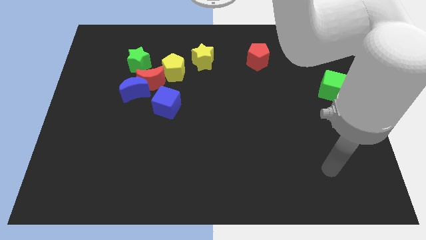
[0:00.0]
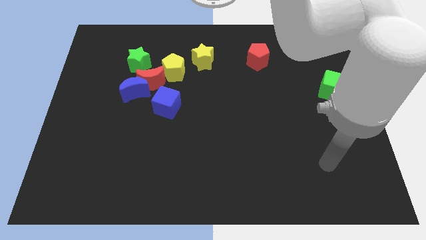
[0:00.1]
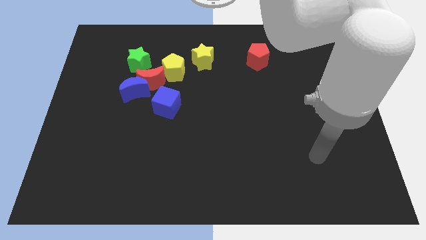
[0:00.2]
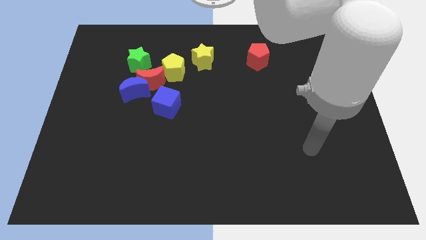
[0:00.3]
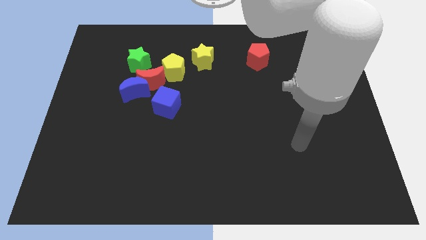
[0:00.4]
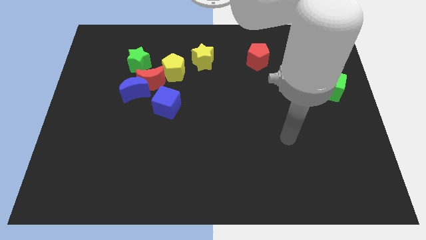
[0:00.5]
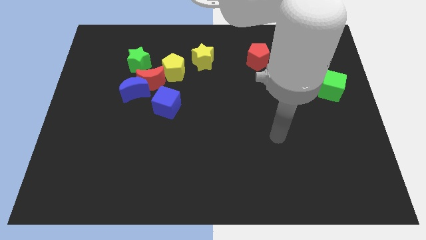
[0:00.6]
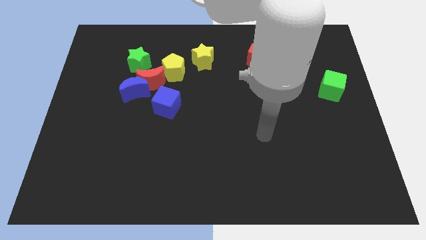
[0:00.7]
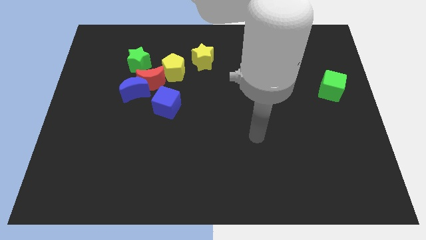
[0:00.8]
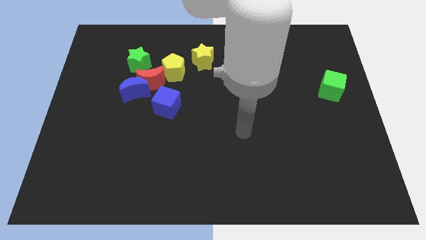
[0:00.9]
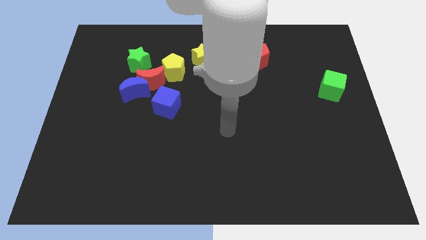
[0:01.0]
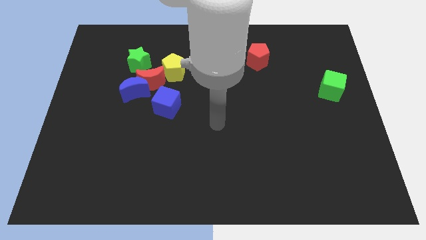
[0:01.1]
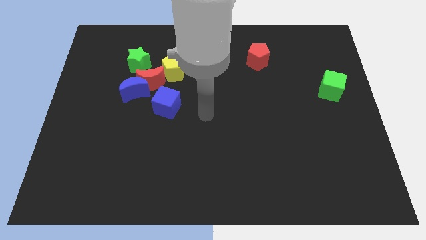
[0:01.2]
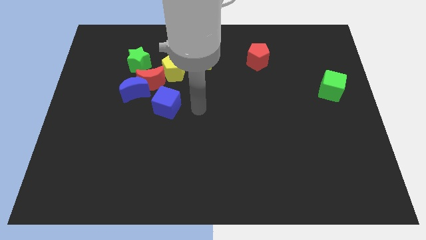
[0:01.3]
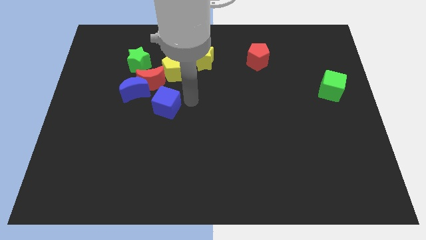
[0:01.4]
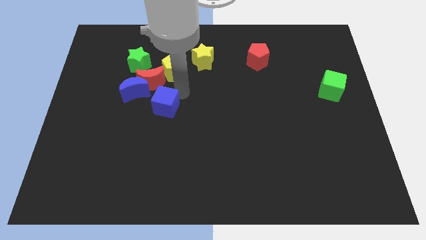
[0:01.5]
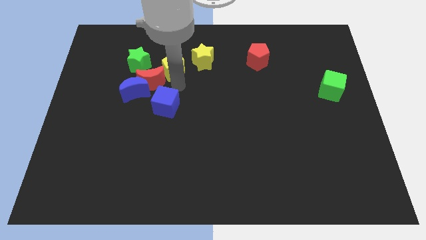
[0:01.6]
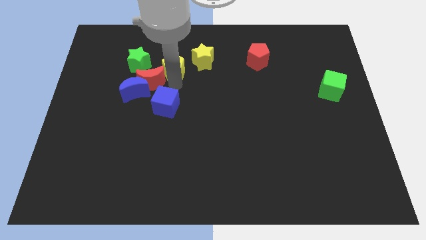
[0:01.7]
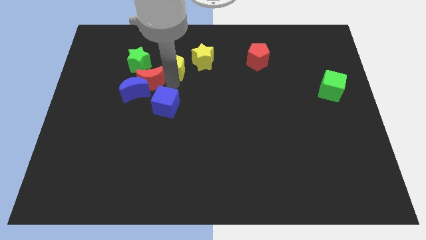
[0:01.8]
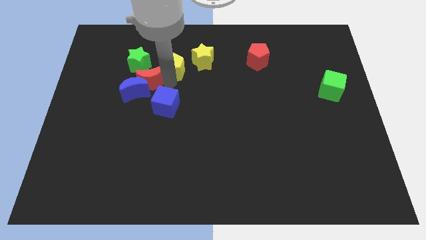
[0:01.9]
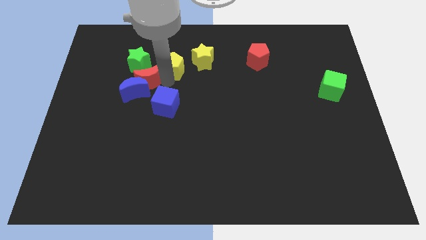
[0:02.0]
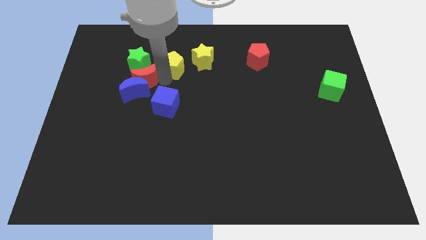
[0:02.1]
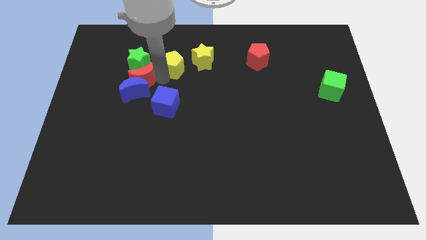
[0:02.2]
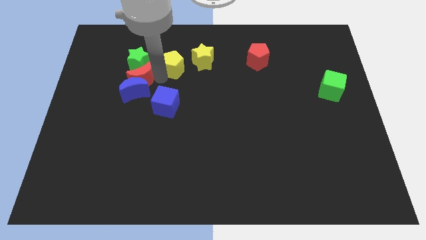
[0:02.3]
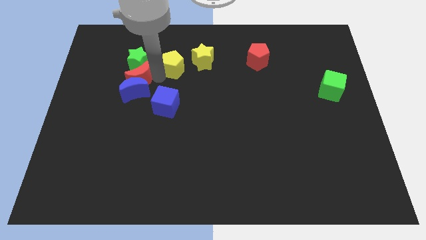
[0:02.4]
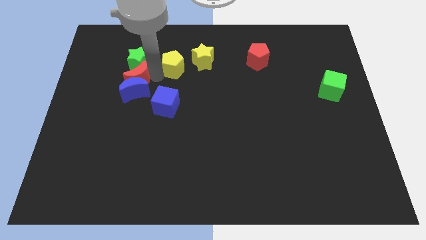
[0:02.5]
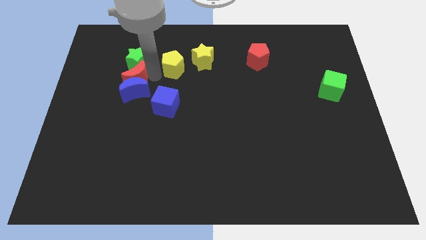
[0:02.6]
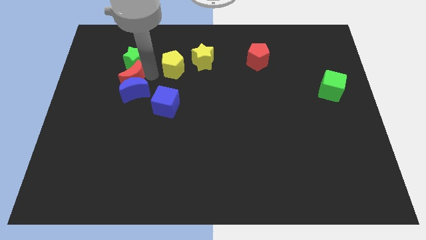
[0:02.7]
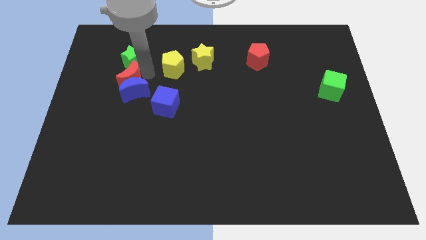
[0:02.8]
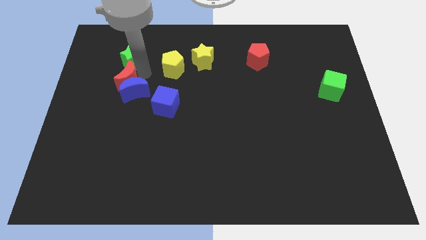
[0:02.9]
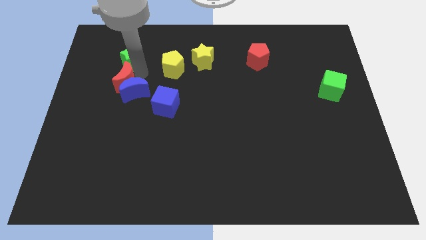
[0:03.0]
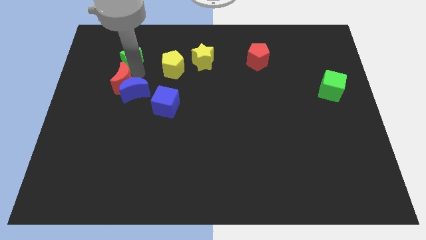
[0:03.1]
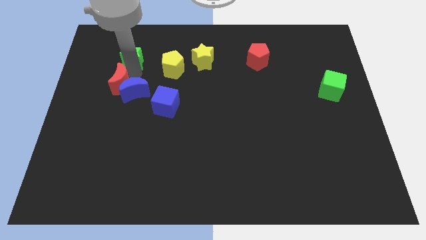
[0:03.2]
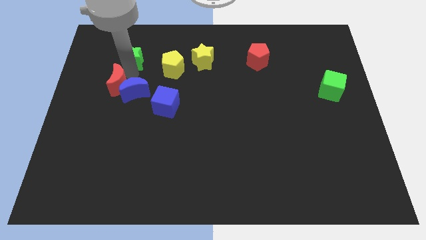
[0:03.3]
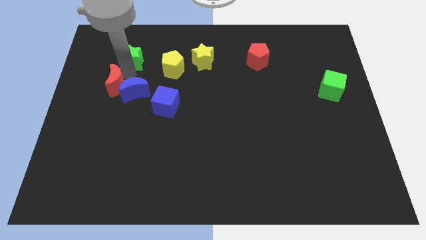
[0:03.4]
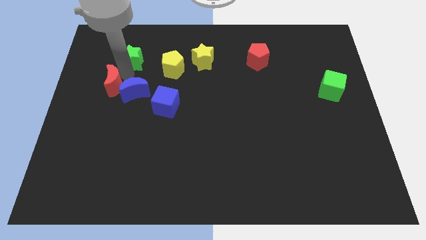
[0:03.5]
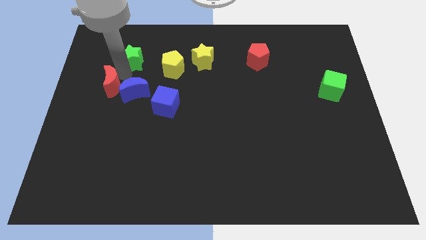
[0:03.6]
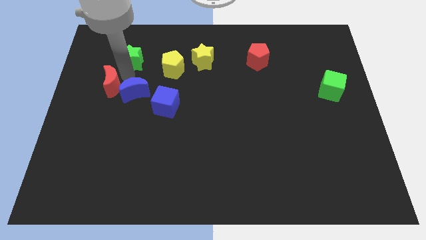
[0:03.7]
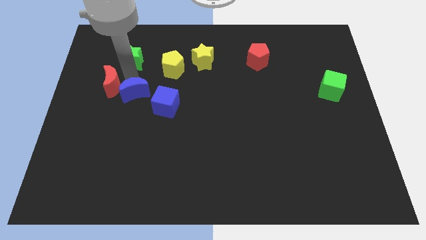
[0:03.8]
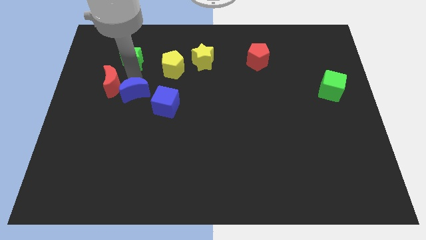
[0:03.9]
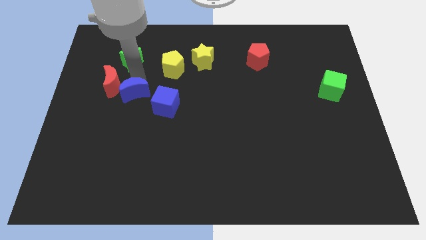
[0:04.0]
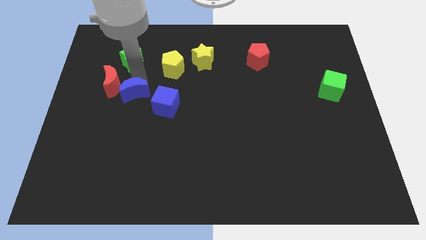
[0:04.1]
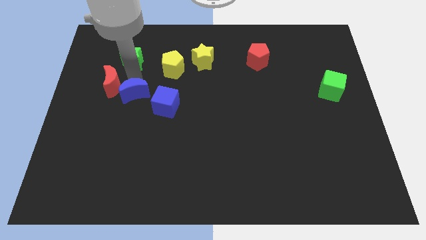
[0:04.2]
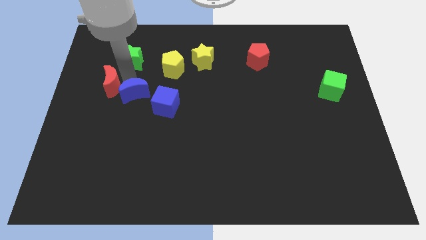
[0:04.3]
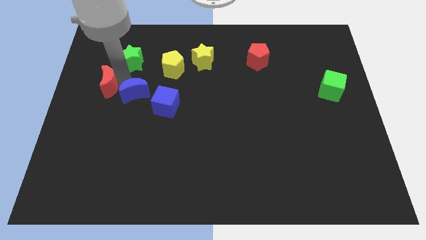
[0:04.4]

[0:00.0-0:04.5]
move the red moon away from the group

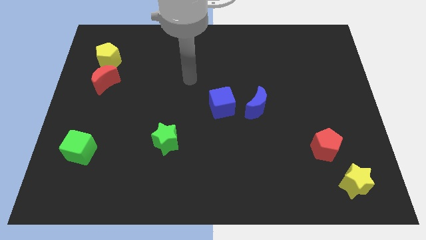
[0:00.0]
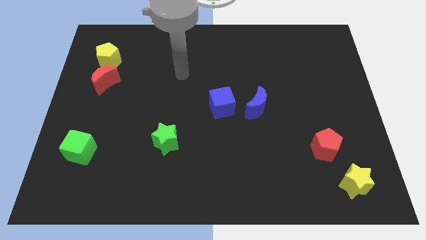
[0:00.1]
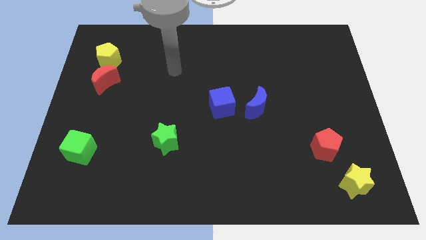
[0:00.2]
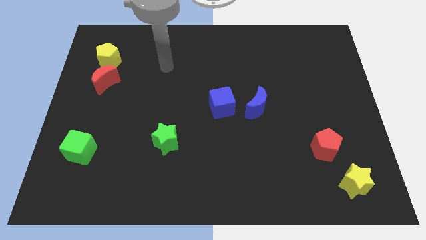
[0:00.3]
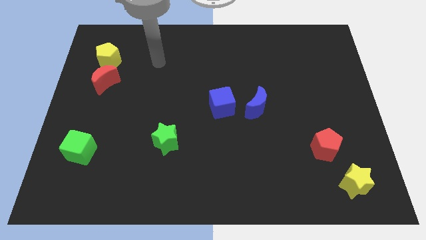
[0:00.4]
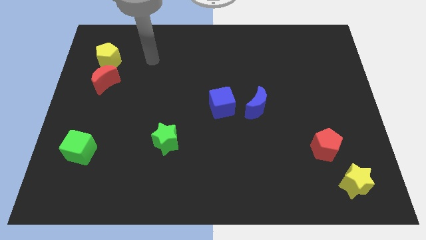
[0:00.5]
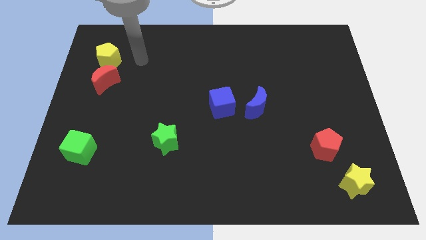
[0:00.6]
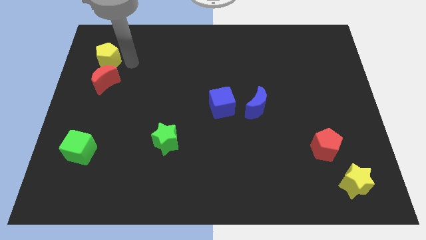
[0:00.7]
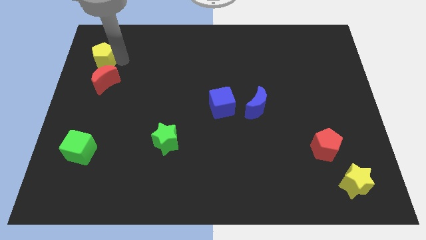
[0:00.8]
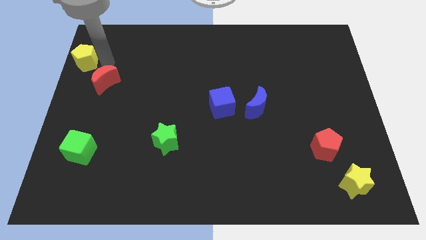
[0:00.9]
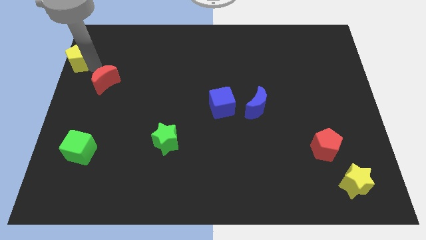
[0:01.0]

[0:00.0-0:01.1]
move the red moon away from the yellow pentagon

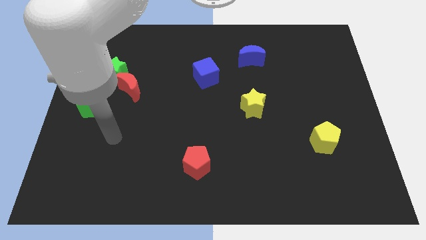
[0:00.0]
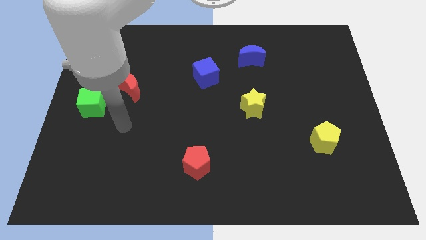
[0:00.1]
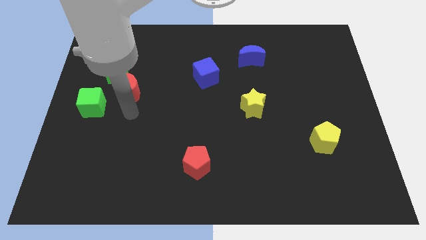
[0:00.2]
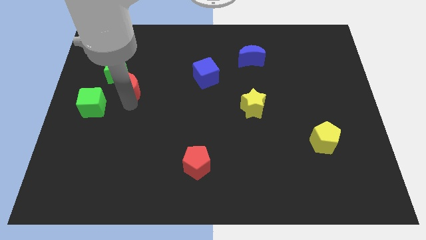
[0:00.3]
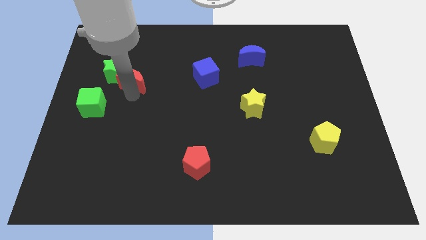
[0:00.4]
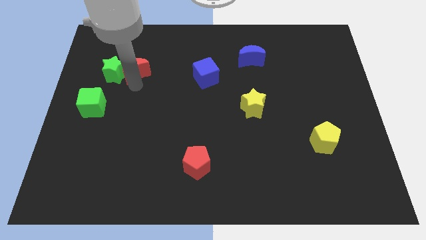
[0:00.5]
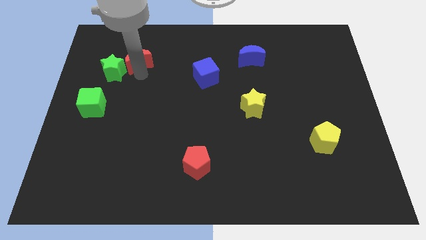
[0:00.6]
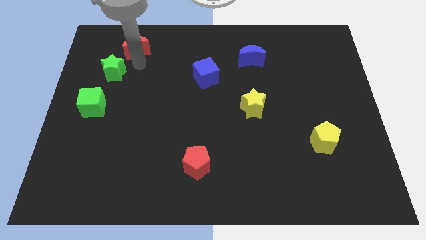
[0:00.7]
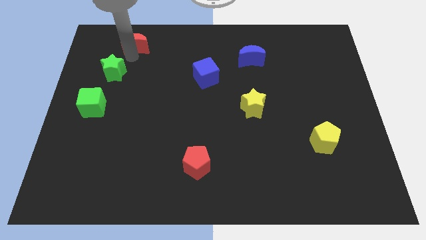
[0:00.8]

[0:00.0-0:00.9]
move the green star away from the red moon

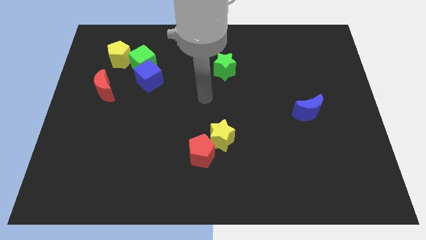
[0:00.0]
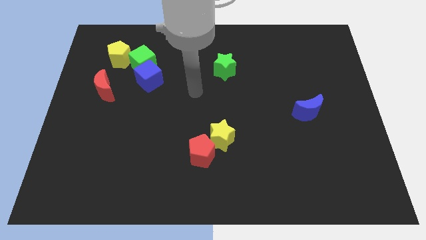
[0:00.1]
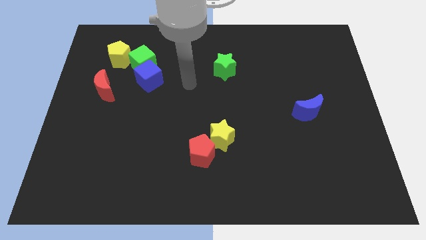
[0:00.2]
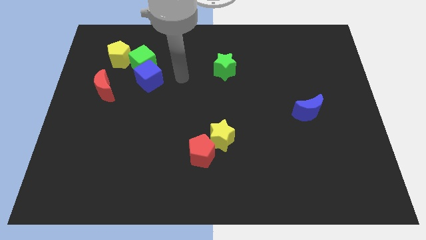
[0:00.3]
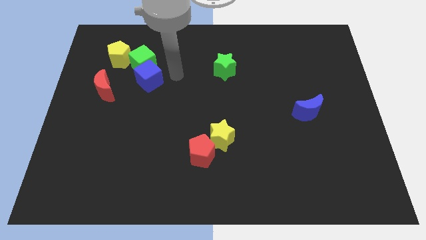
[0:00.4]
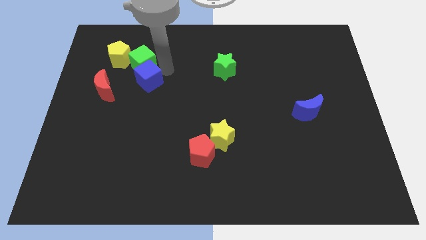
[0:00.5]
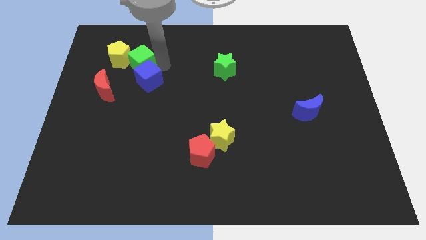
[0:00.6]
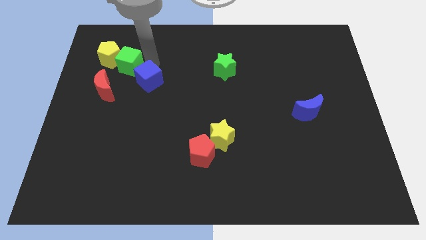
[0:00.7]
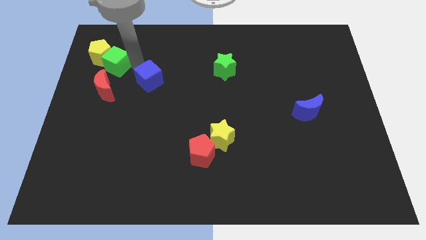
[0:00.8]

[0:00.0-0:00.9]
move the blue cube away from the green cube

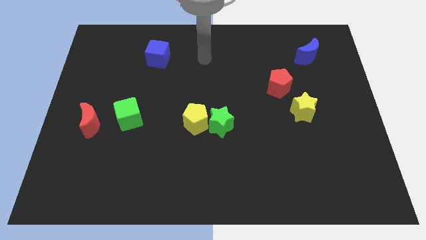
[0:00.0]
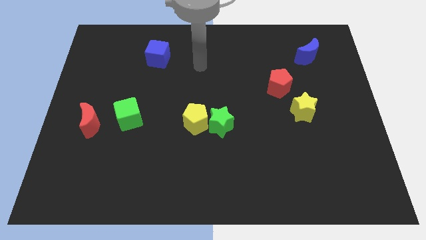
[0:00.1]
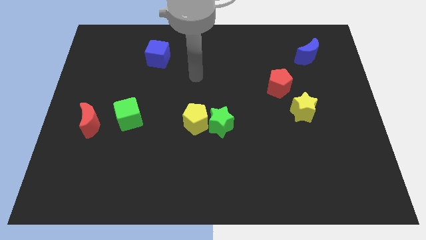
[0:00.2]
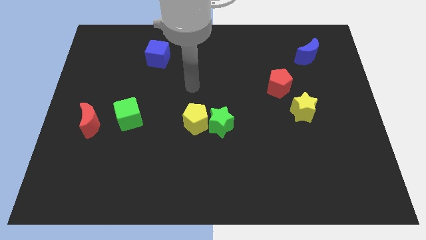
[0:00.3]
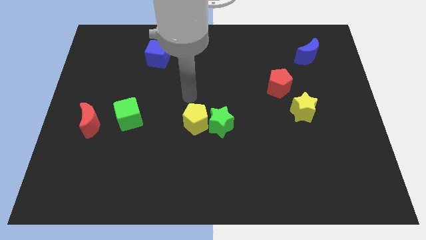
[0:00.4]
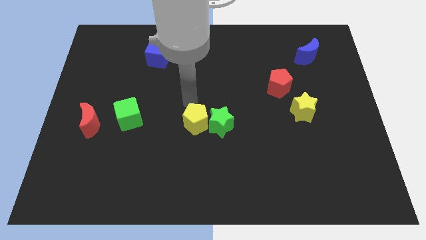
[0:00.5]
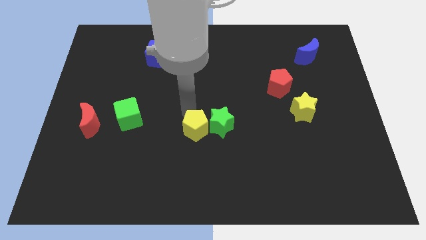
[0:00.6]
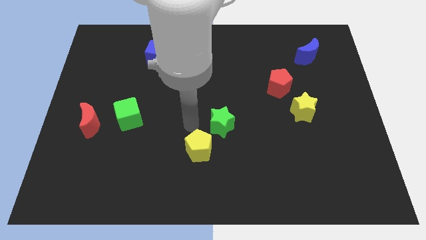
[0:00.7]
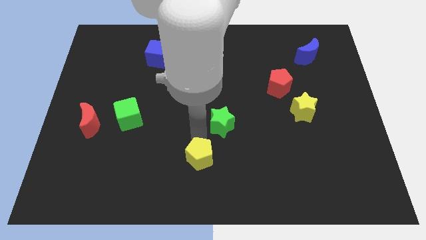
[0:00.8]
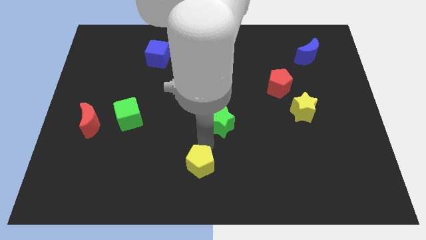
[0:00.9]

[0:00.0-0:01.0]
pull the green star apart from the yellow pentagon

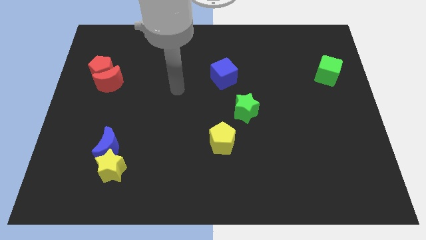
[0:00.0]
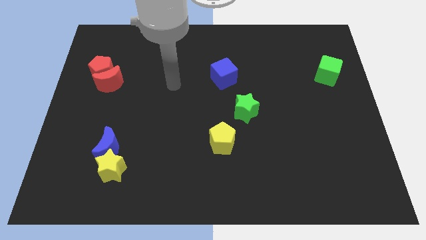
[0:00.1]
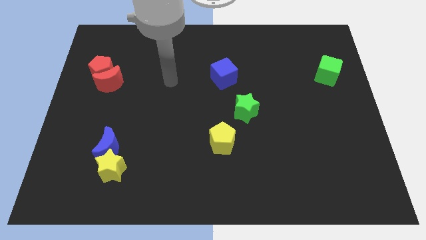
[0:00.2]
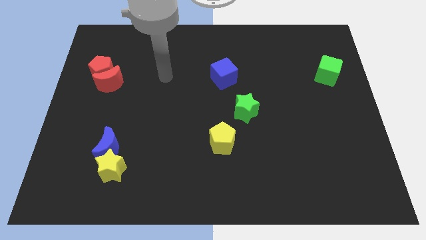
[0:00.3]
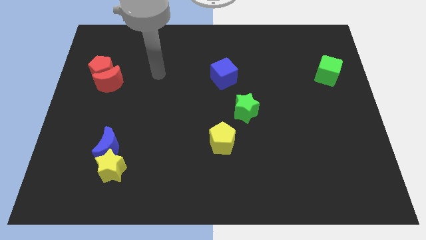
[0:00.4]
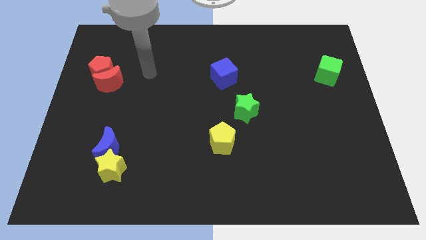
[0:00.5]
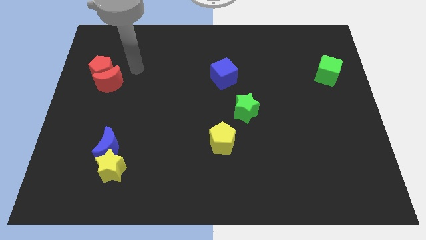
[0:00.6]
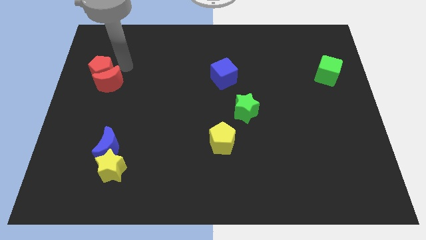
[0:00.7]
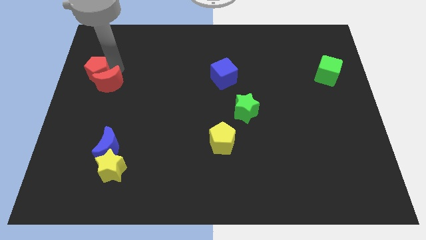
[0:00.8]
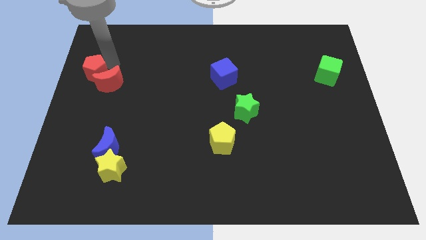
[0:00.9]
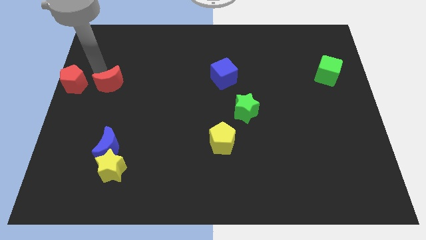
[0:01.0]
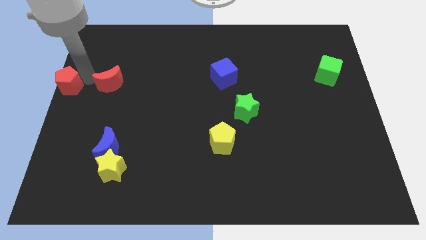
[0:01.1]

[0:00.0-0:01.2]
pull the red moon apart from the red pentagon
